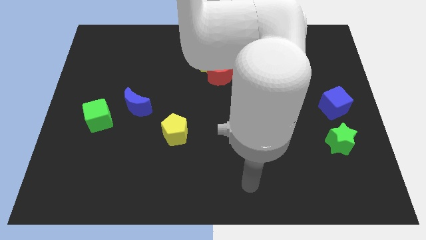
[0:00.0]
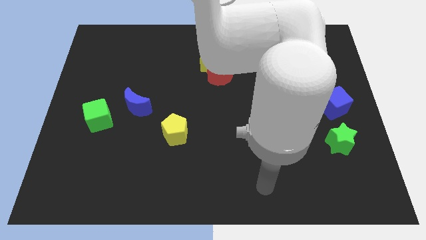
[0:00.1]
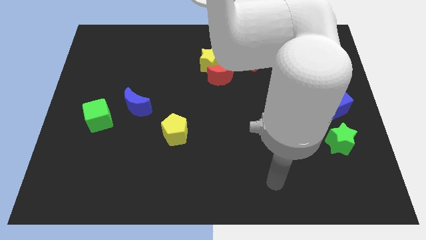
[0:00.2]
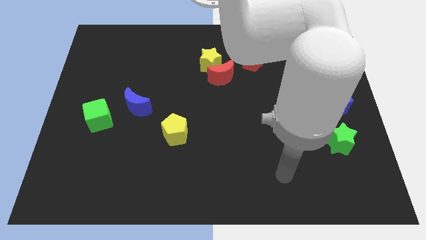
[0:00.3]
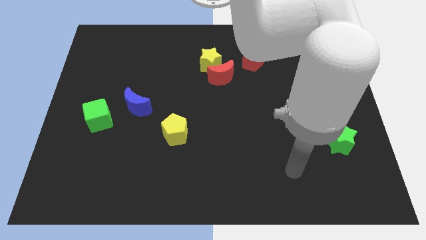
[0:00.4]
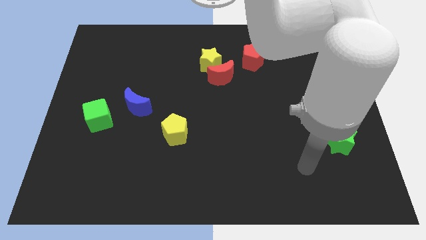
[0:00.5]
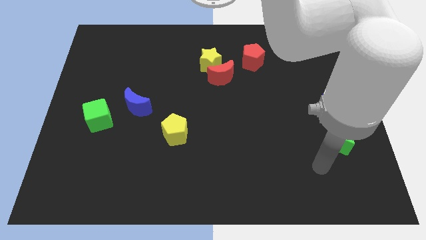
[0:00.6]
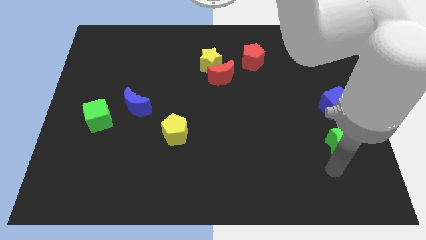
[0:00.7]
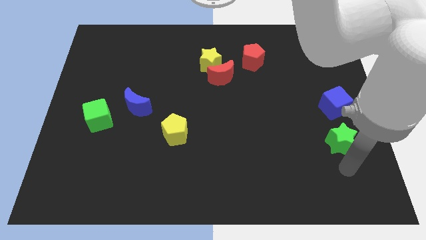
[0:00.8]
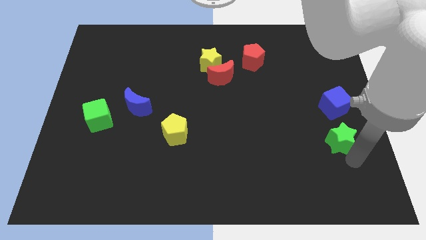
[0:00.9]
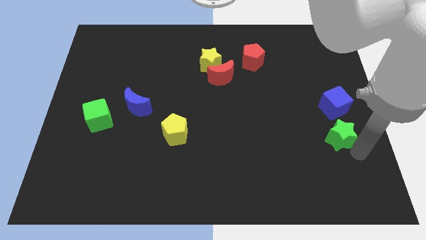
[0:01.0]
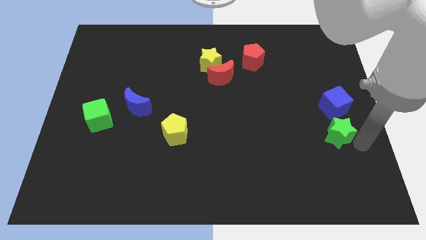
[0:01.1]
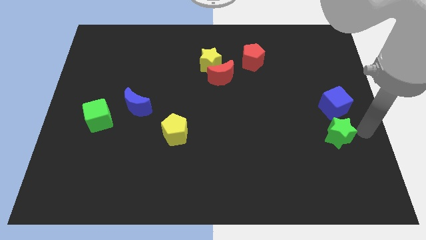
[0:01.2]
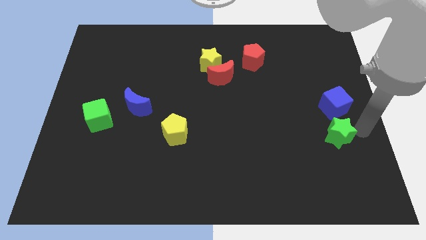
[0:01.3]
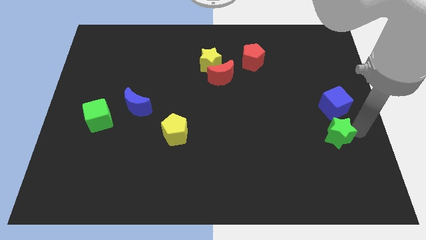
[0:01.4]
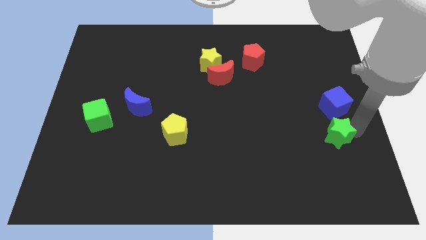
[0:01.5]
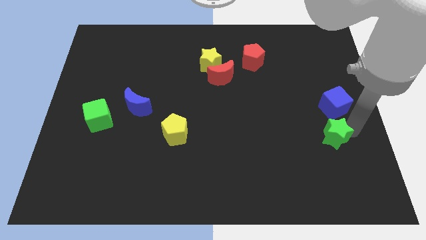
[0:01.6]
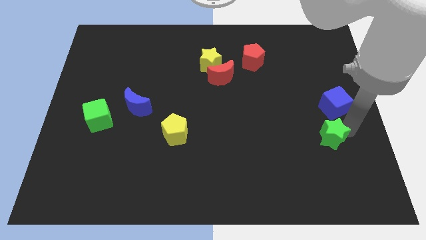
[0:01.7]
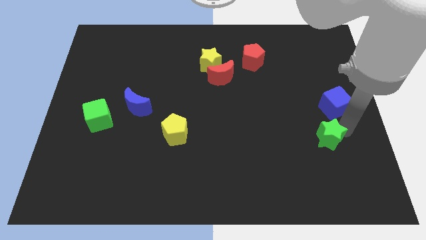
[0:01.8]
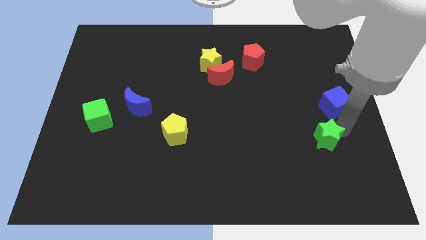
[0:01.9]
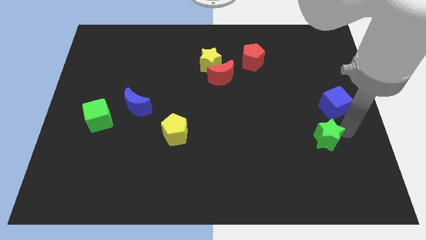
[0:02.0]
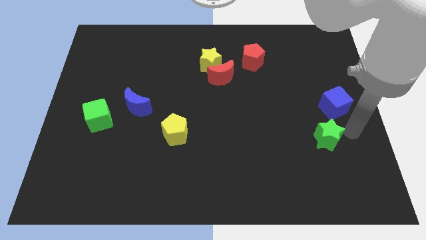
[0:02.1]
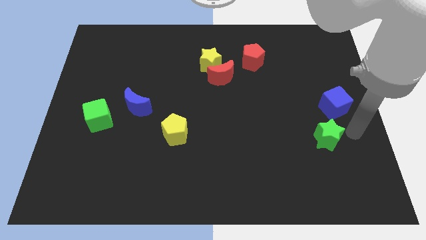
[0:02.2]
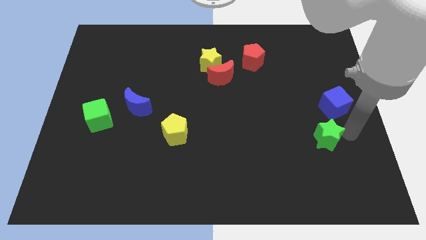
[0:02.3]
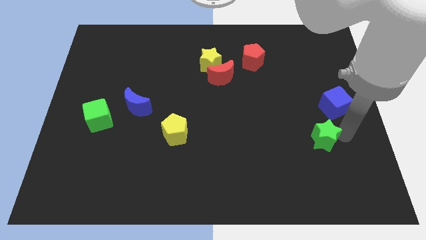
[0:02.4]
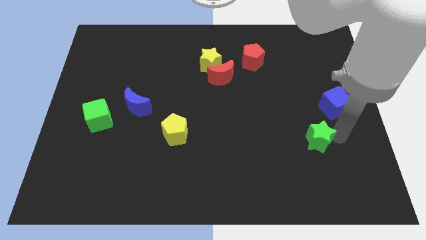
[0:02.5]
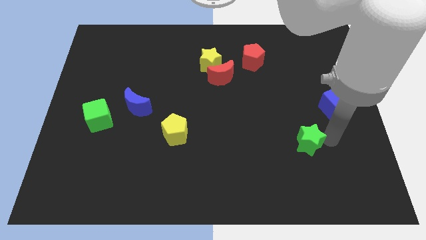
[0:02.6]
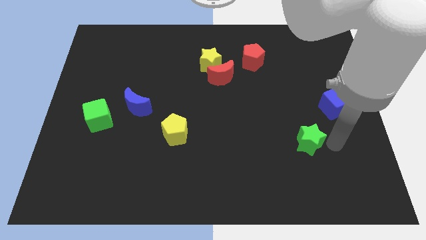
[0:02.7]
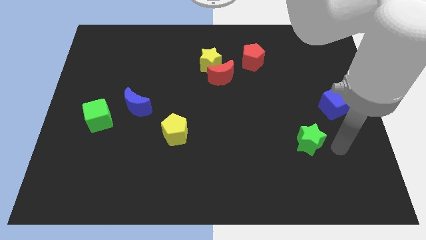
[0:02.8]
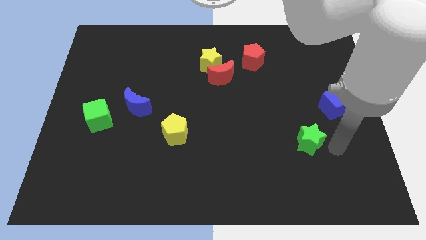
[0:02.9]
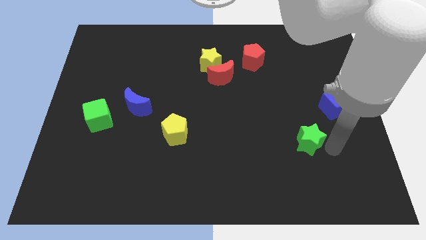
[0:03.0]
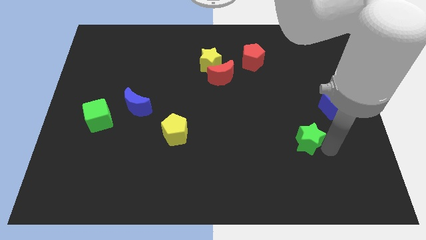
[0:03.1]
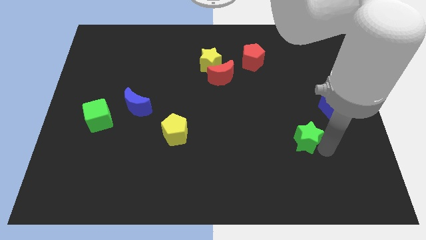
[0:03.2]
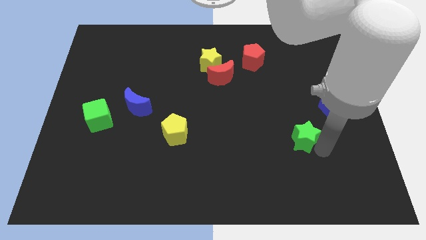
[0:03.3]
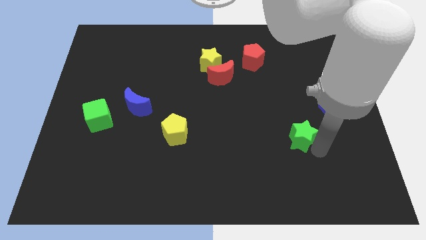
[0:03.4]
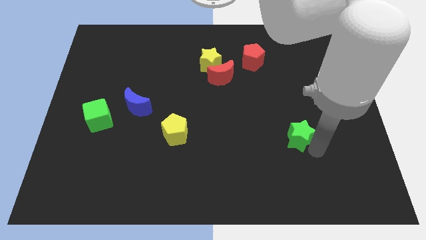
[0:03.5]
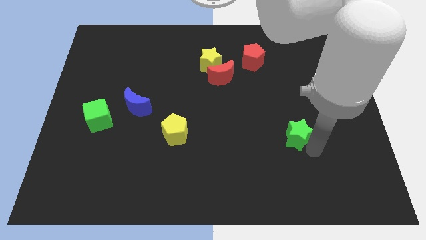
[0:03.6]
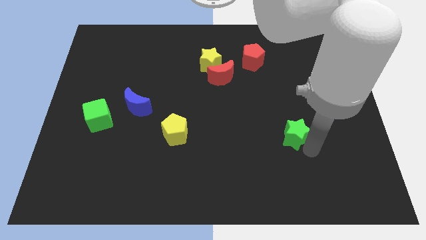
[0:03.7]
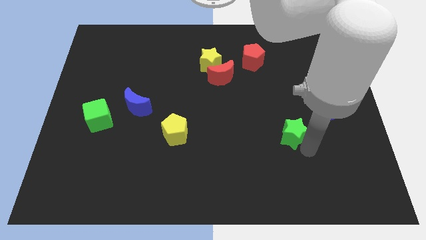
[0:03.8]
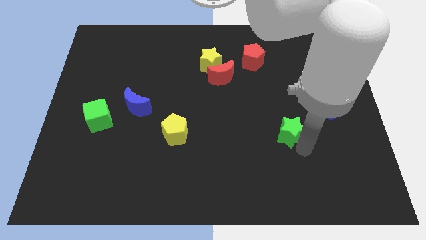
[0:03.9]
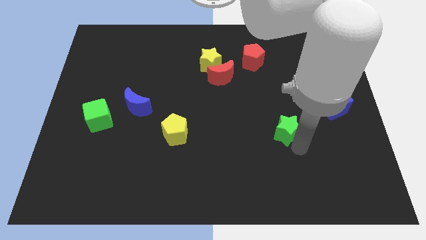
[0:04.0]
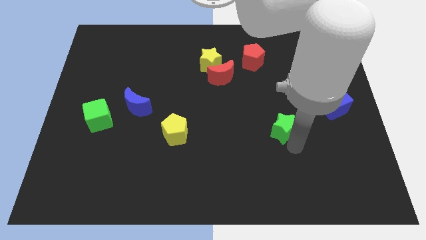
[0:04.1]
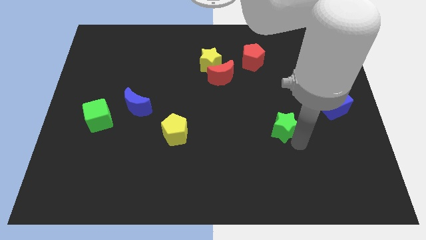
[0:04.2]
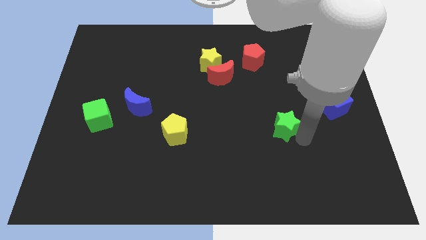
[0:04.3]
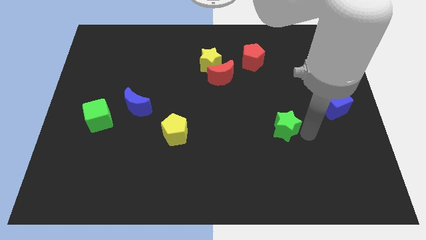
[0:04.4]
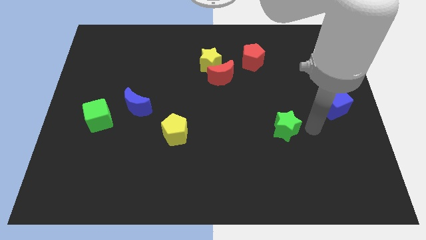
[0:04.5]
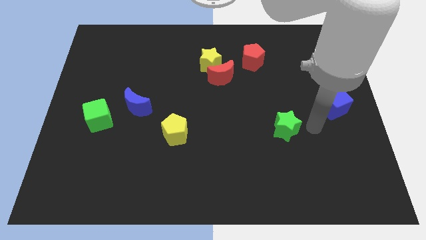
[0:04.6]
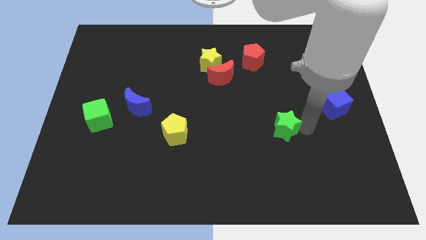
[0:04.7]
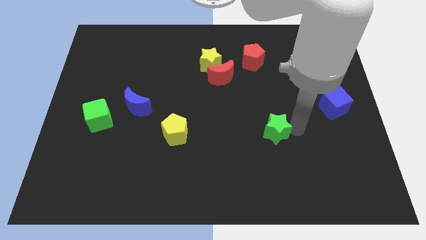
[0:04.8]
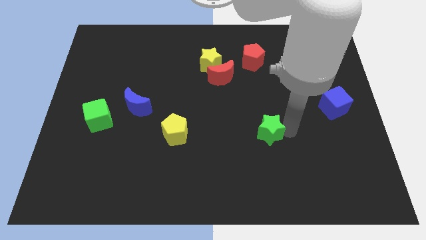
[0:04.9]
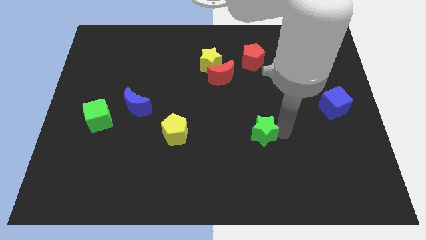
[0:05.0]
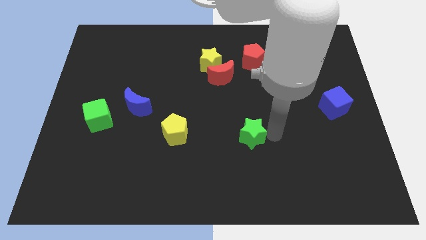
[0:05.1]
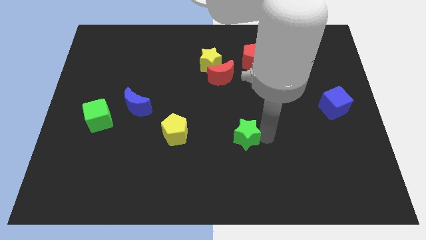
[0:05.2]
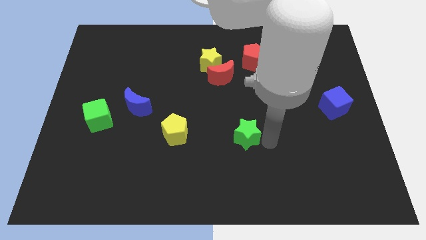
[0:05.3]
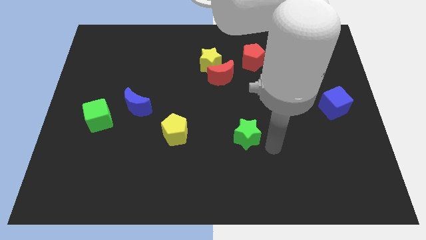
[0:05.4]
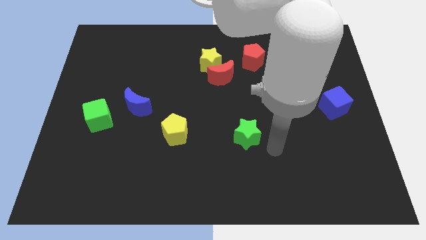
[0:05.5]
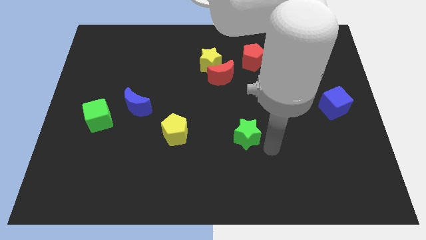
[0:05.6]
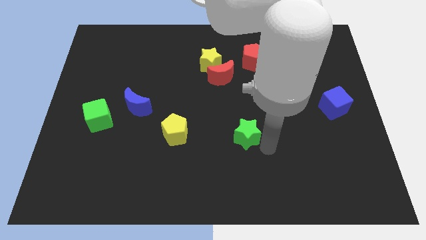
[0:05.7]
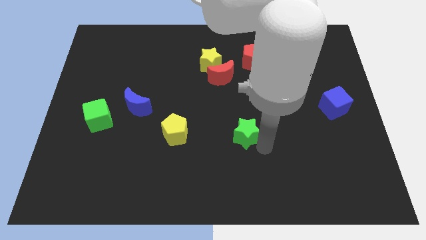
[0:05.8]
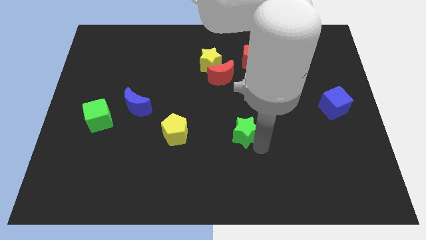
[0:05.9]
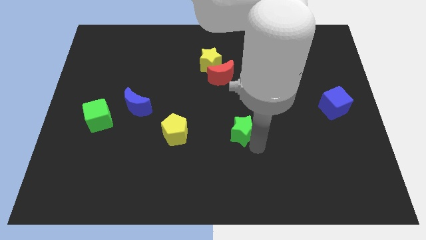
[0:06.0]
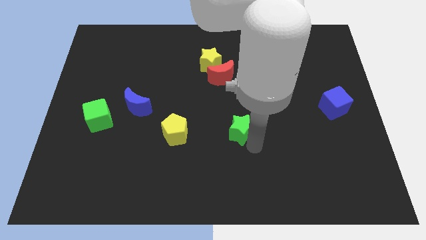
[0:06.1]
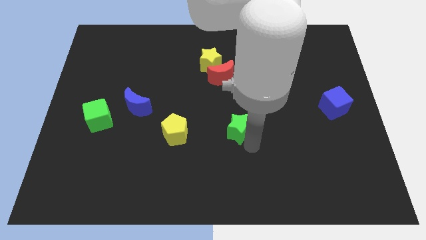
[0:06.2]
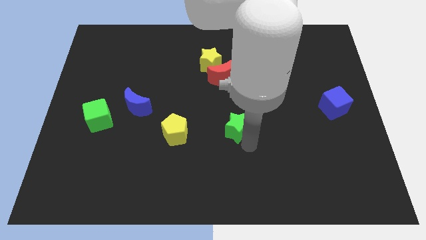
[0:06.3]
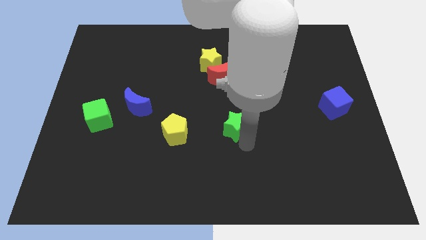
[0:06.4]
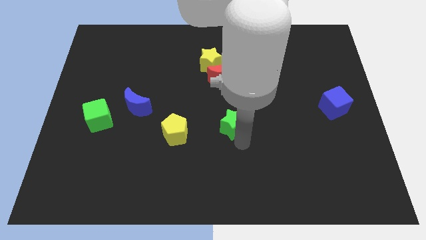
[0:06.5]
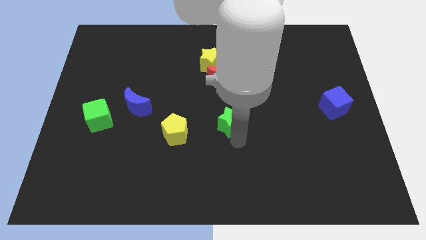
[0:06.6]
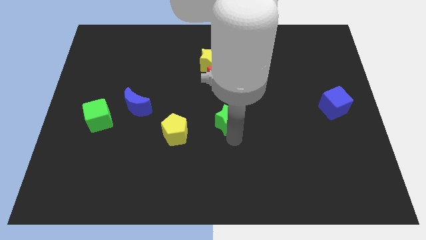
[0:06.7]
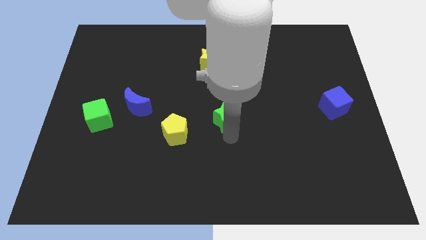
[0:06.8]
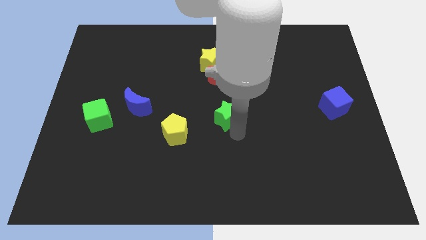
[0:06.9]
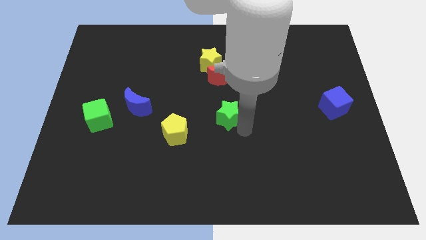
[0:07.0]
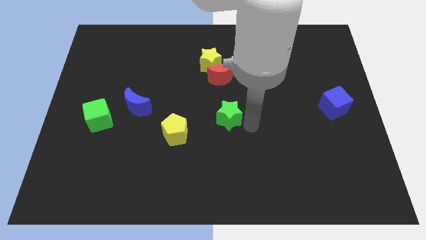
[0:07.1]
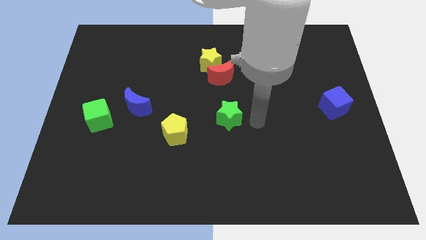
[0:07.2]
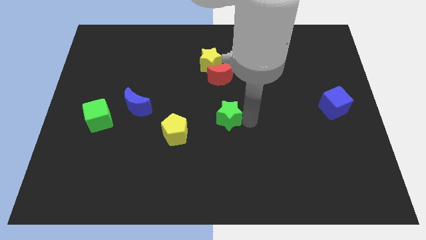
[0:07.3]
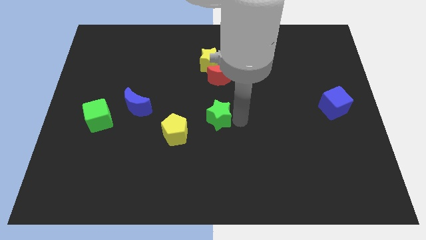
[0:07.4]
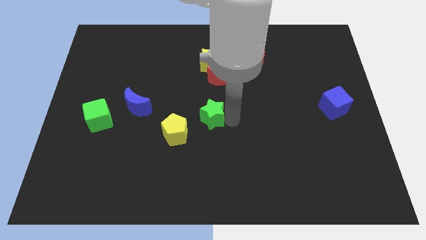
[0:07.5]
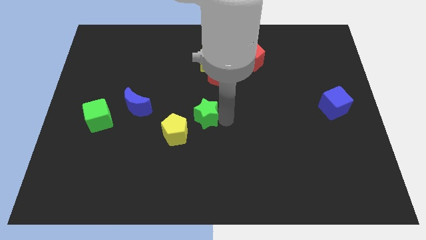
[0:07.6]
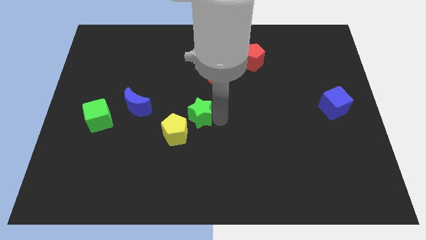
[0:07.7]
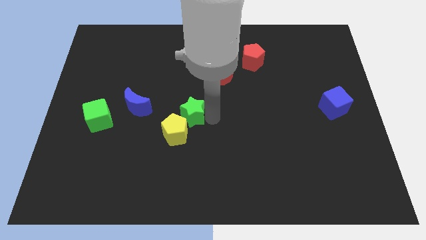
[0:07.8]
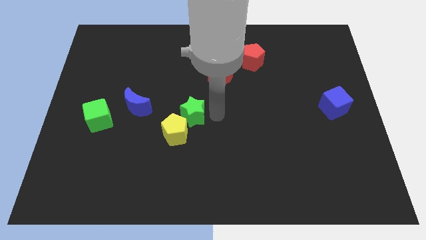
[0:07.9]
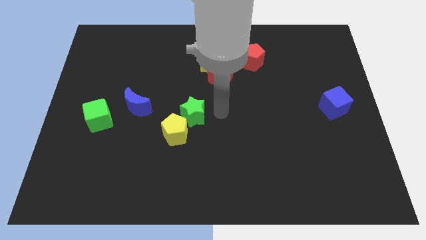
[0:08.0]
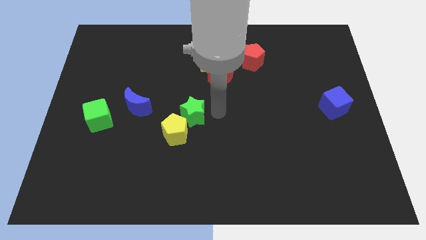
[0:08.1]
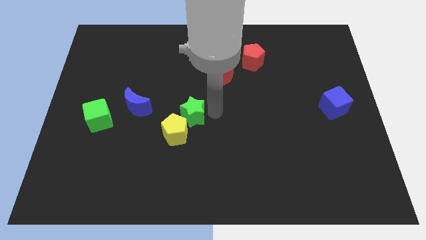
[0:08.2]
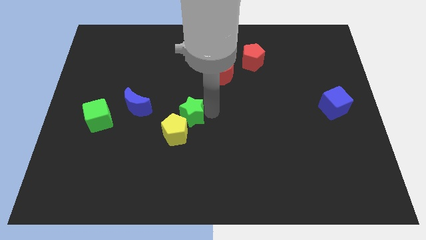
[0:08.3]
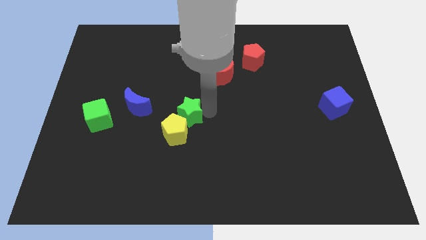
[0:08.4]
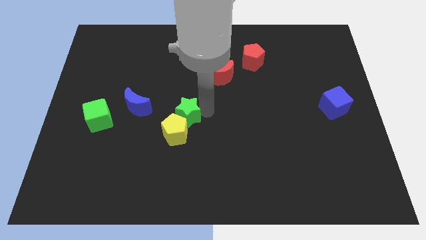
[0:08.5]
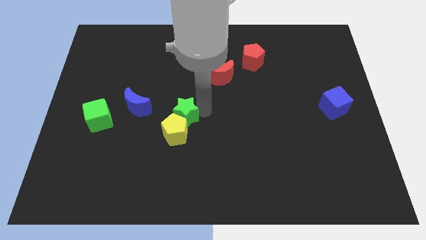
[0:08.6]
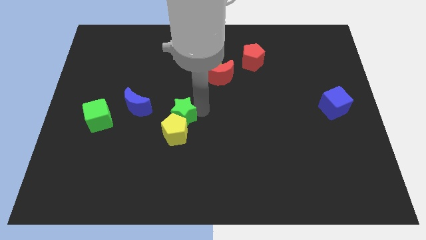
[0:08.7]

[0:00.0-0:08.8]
slide the green star diagonally up and to the left of the yellow pentagon
